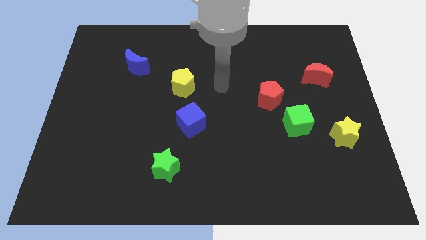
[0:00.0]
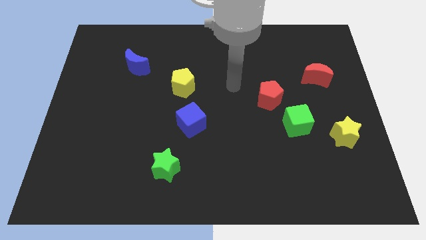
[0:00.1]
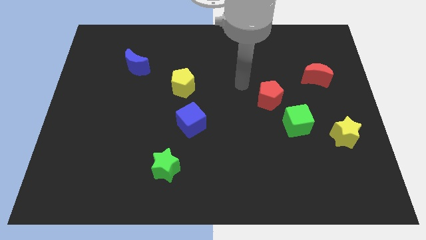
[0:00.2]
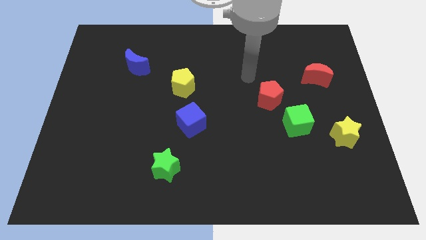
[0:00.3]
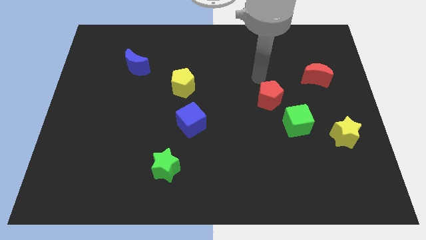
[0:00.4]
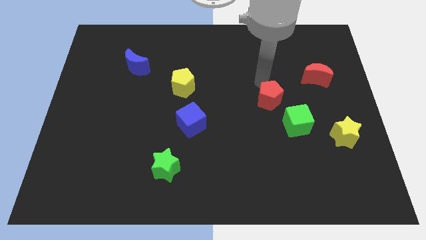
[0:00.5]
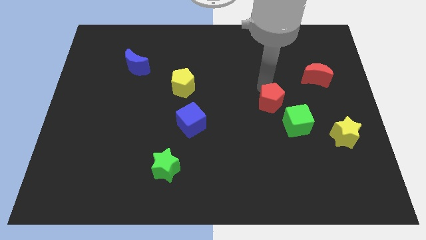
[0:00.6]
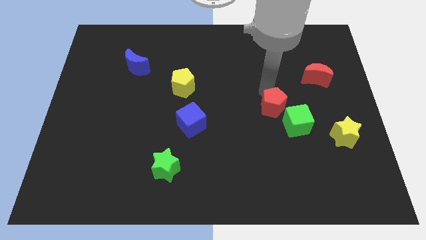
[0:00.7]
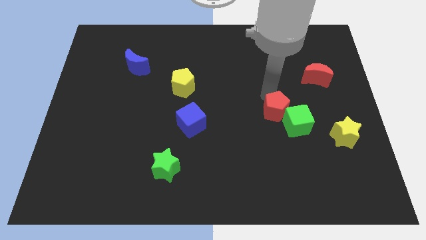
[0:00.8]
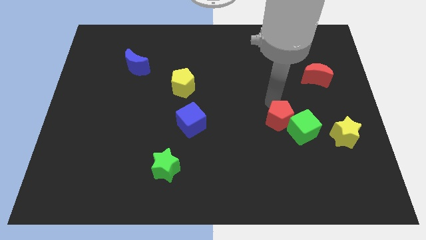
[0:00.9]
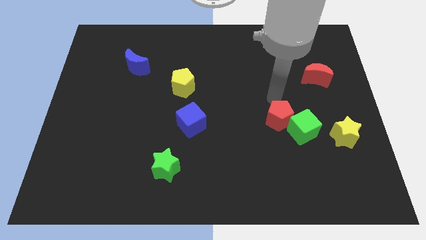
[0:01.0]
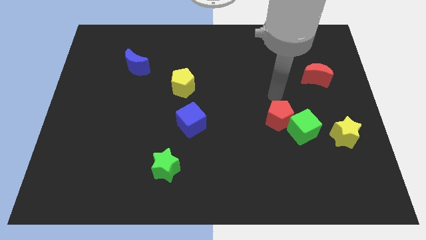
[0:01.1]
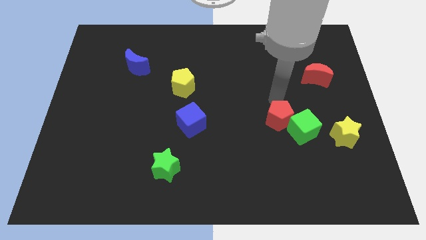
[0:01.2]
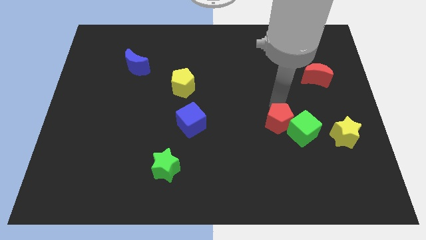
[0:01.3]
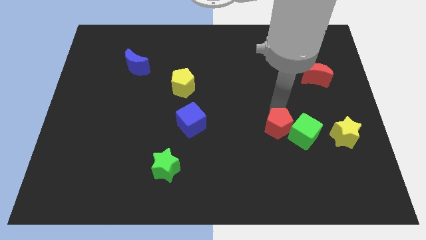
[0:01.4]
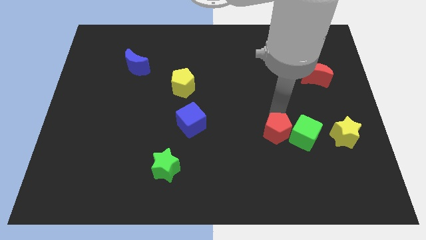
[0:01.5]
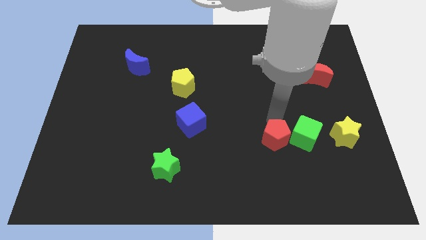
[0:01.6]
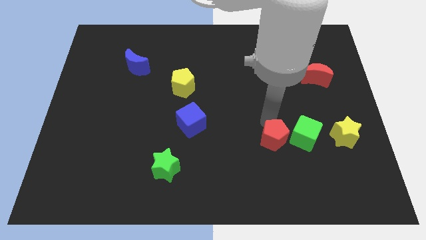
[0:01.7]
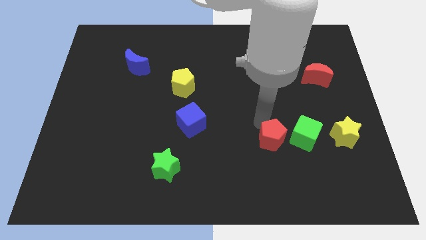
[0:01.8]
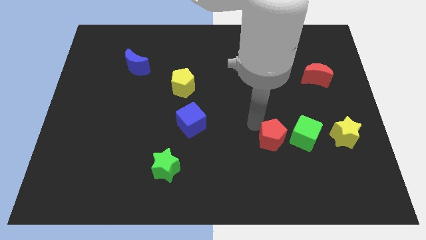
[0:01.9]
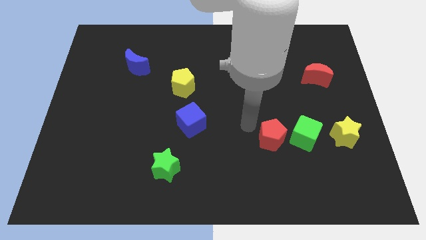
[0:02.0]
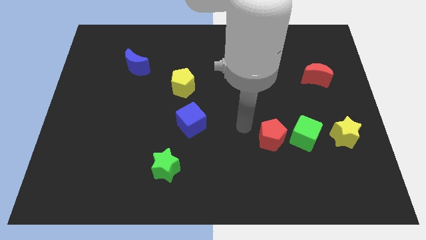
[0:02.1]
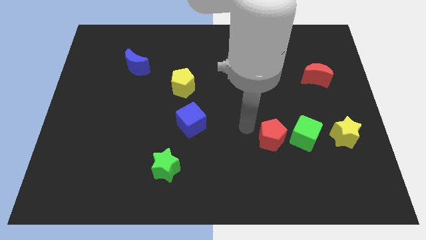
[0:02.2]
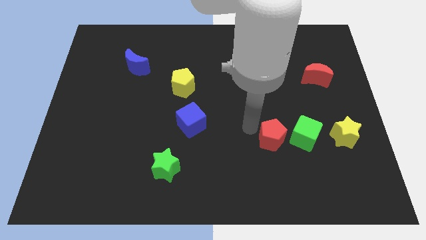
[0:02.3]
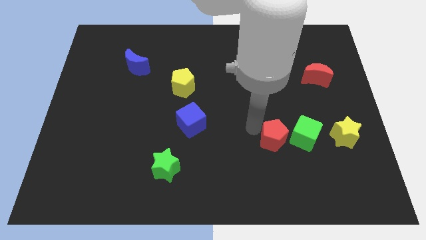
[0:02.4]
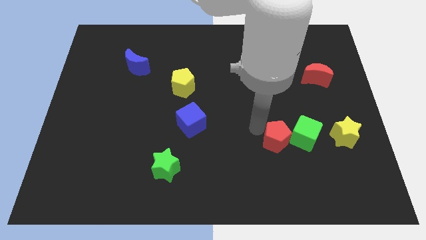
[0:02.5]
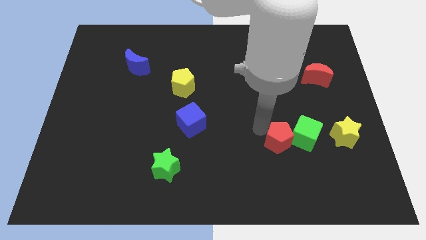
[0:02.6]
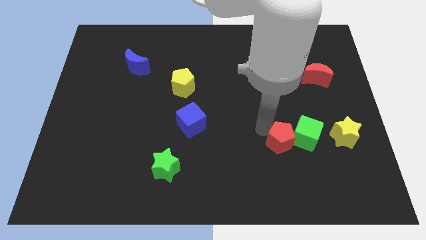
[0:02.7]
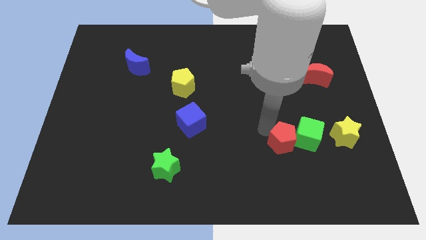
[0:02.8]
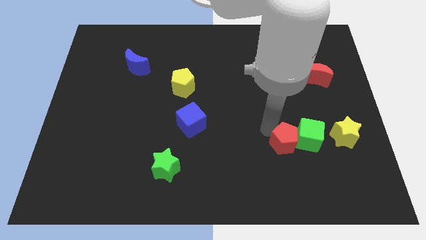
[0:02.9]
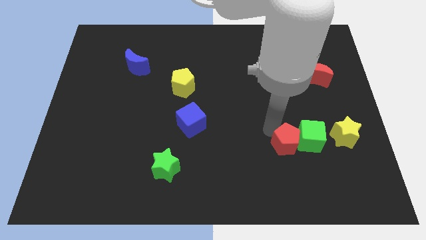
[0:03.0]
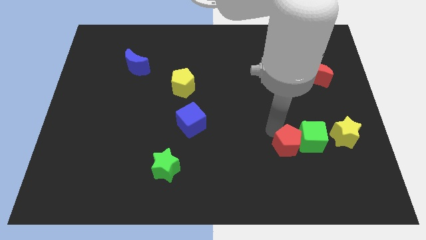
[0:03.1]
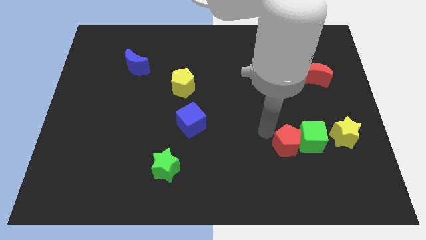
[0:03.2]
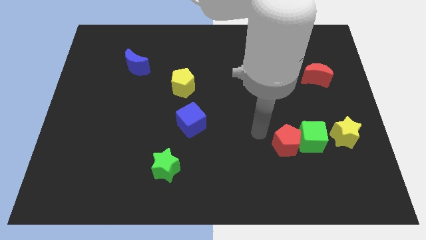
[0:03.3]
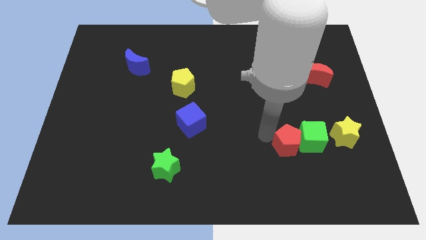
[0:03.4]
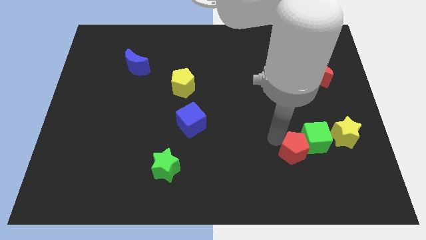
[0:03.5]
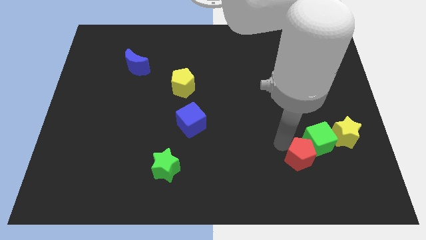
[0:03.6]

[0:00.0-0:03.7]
slide the red pentagon diagonally down and to the left of the yellow star

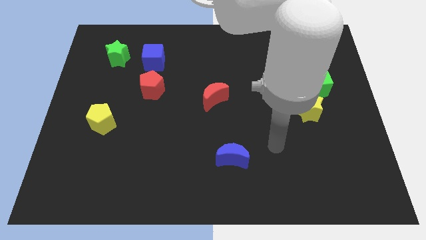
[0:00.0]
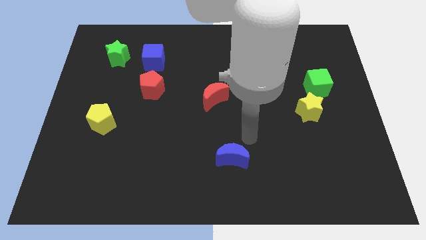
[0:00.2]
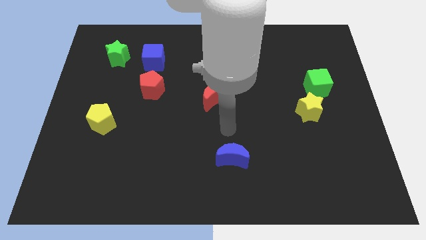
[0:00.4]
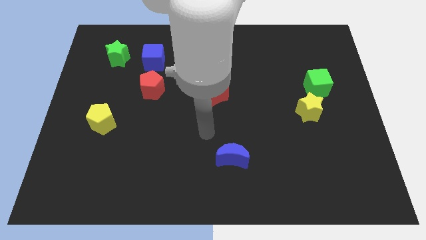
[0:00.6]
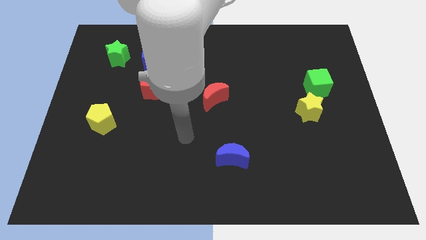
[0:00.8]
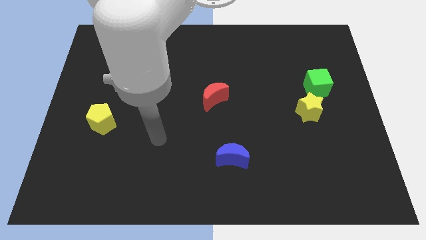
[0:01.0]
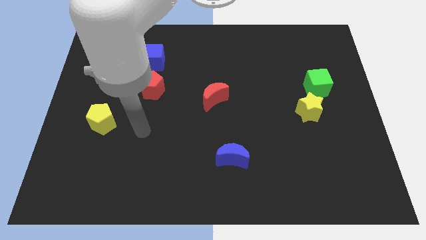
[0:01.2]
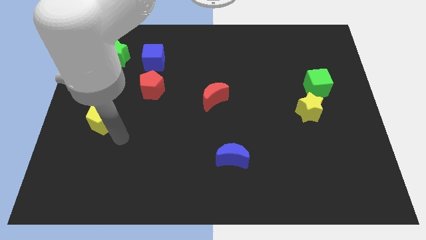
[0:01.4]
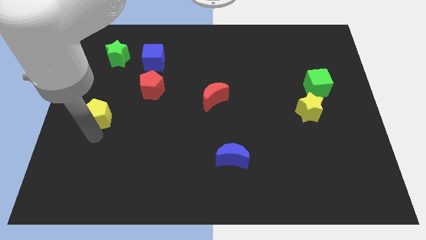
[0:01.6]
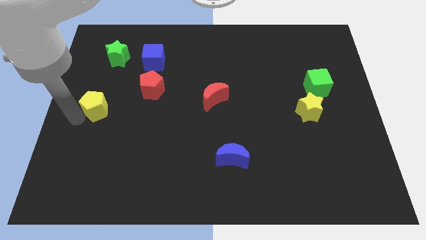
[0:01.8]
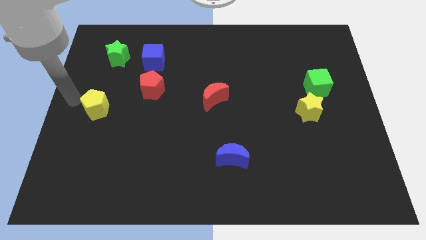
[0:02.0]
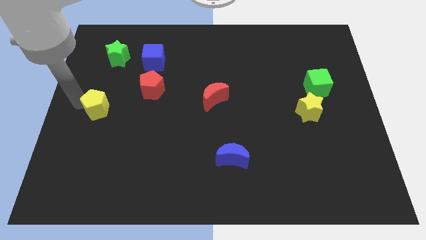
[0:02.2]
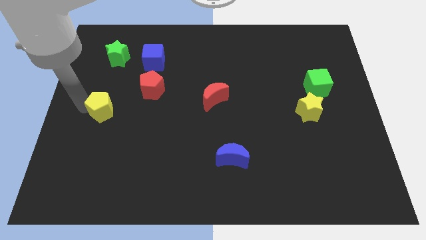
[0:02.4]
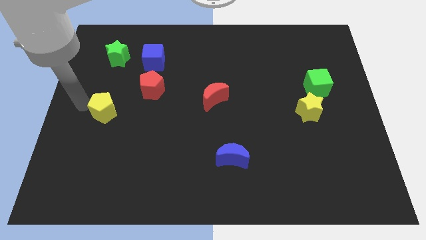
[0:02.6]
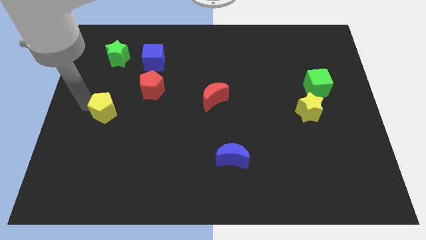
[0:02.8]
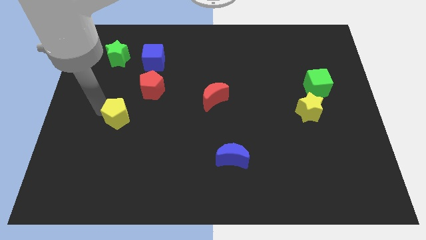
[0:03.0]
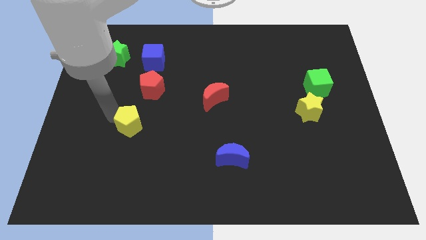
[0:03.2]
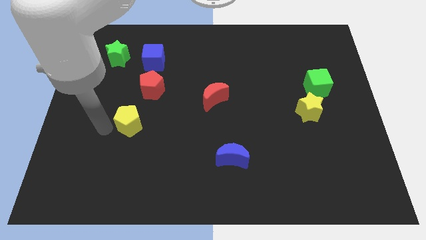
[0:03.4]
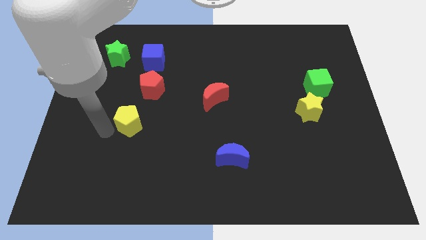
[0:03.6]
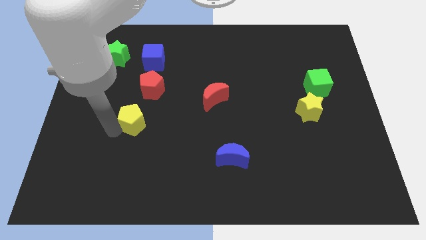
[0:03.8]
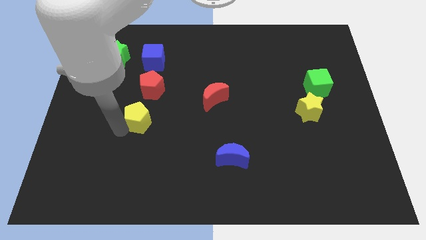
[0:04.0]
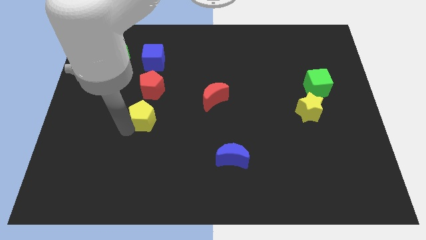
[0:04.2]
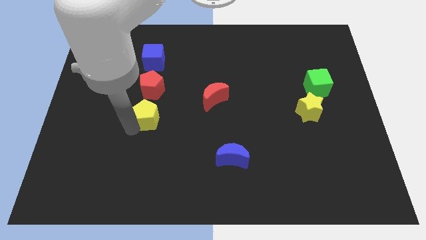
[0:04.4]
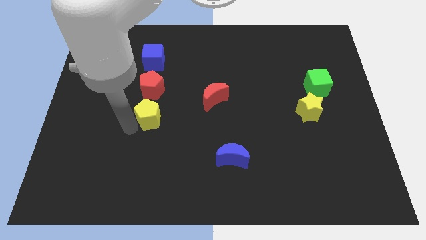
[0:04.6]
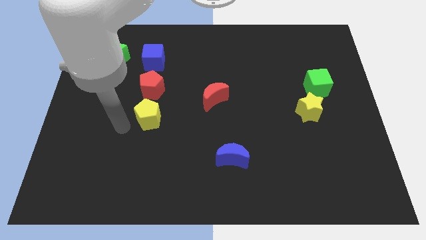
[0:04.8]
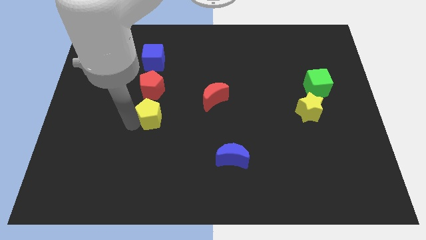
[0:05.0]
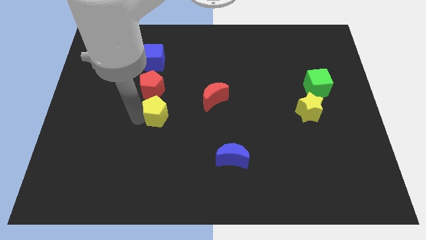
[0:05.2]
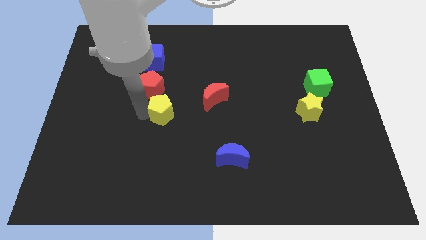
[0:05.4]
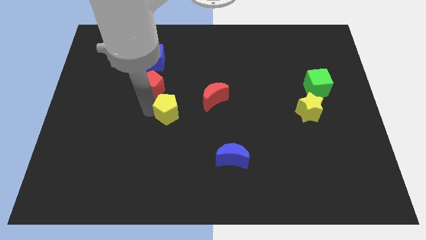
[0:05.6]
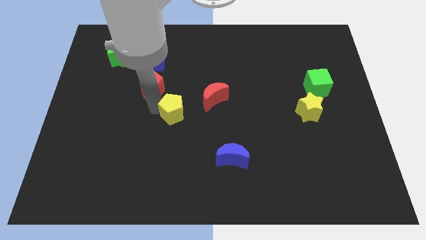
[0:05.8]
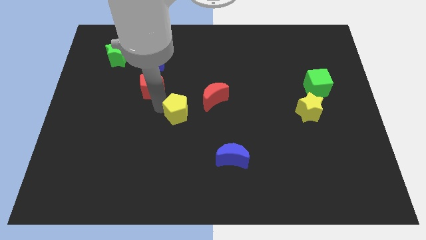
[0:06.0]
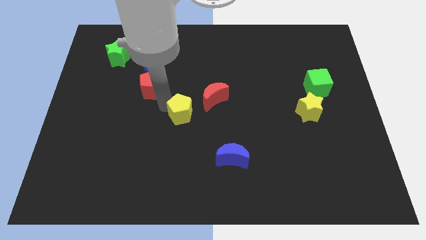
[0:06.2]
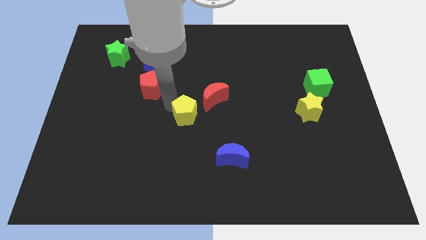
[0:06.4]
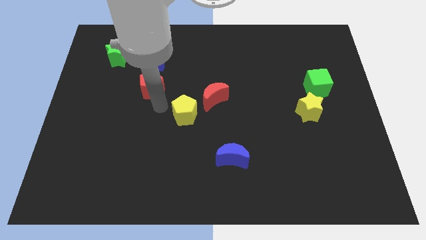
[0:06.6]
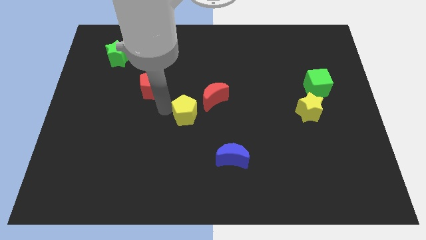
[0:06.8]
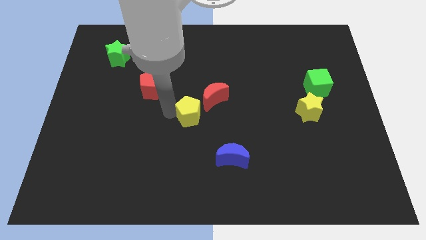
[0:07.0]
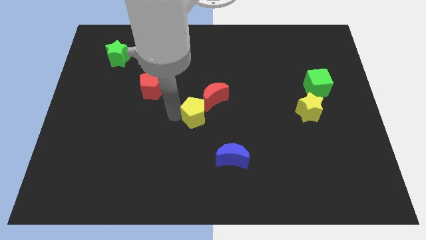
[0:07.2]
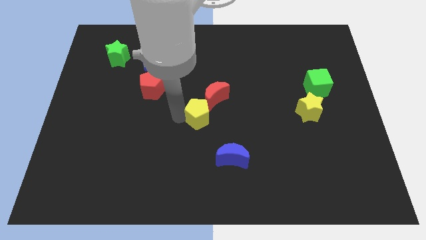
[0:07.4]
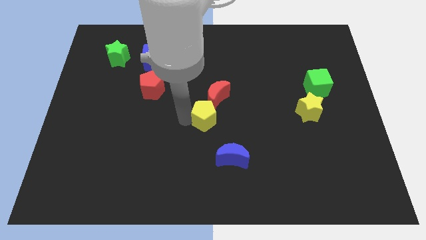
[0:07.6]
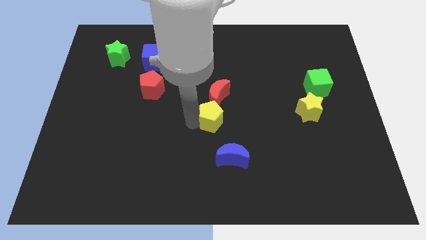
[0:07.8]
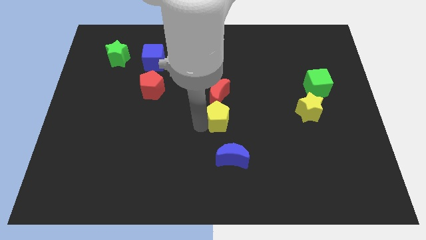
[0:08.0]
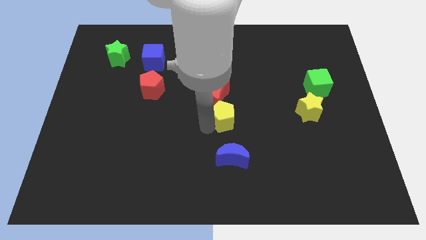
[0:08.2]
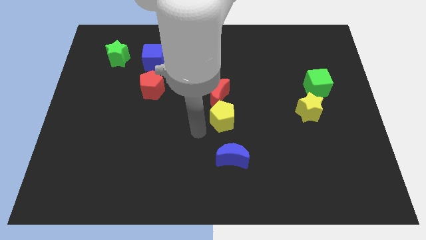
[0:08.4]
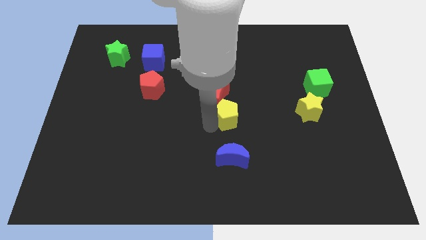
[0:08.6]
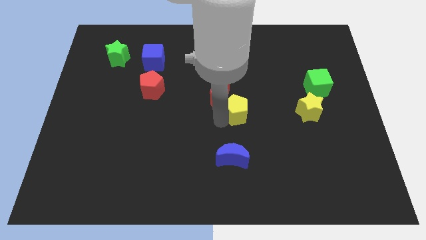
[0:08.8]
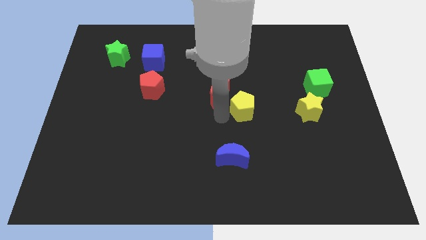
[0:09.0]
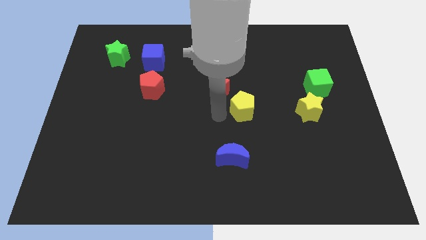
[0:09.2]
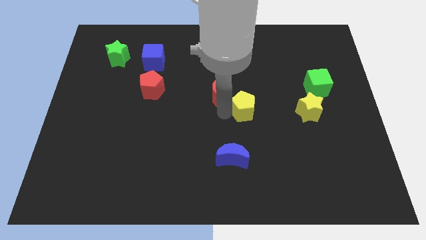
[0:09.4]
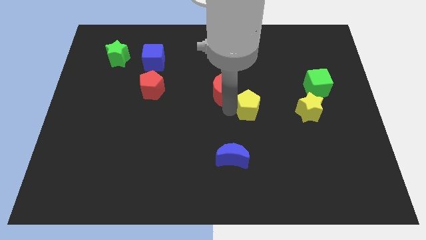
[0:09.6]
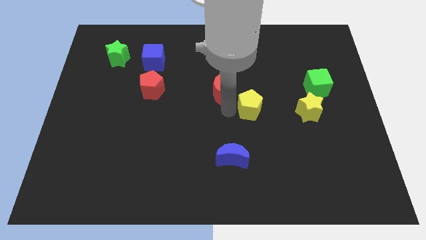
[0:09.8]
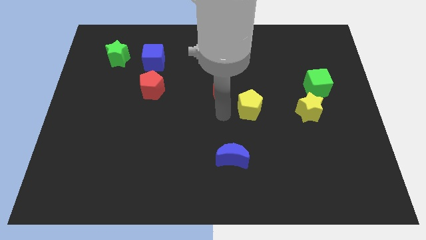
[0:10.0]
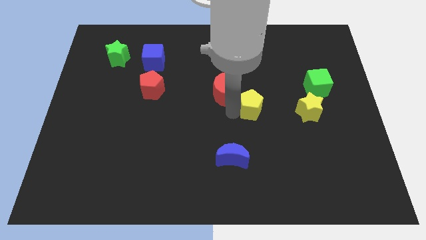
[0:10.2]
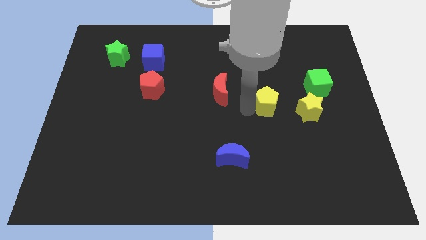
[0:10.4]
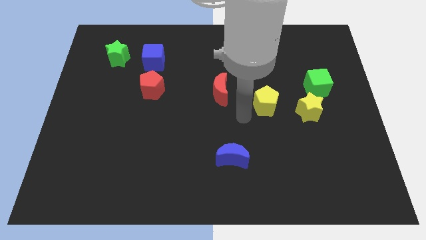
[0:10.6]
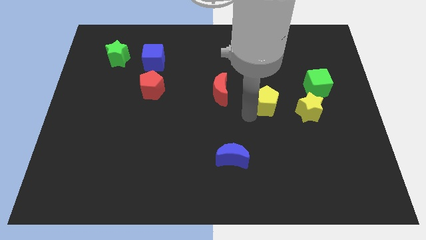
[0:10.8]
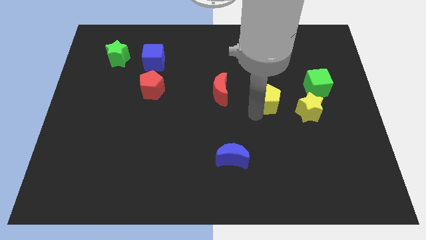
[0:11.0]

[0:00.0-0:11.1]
put the yellow pentagon to the top left side of the yellow star
